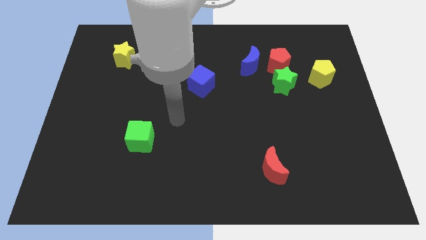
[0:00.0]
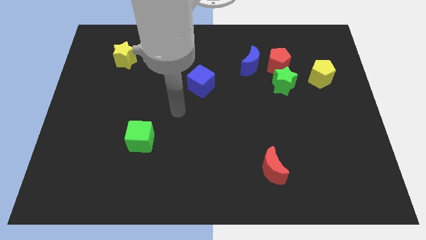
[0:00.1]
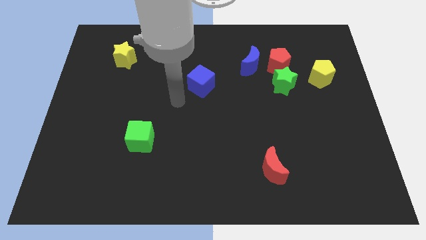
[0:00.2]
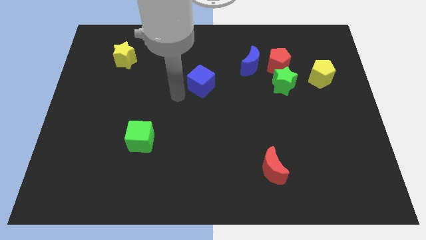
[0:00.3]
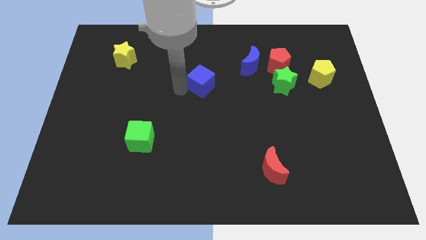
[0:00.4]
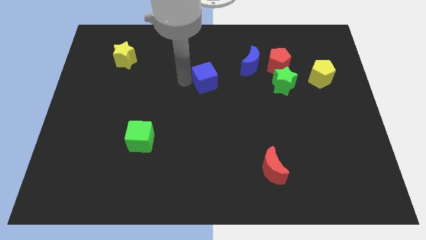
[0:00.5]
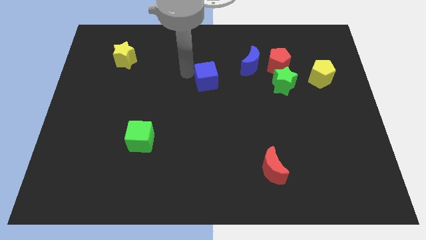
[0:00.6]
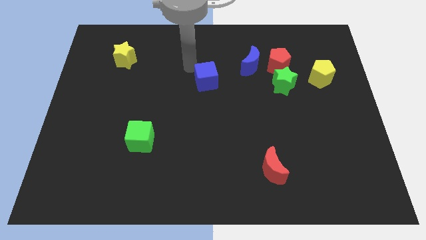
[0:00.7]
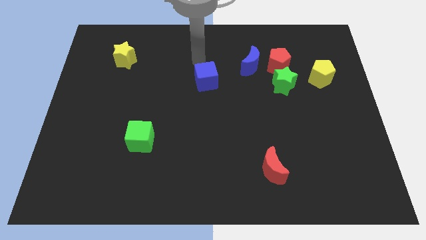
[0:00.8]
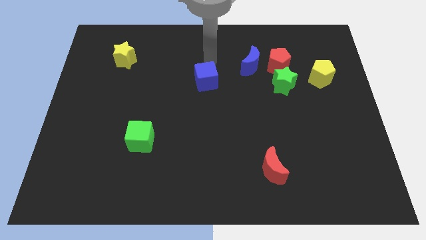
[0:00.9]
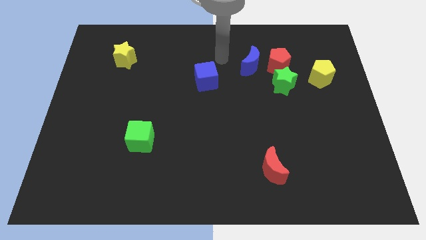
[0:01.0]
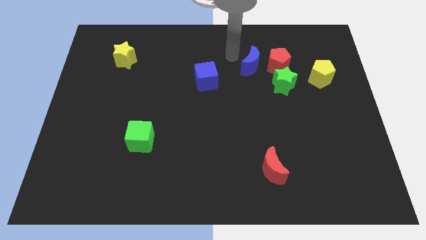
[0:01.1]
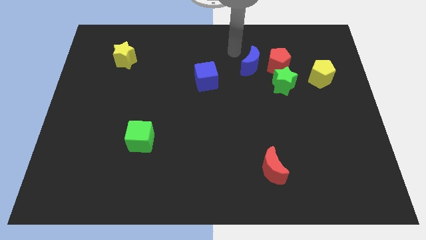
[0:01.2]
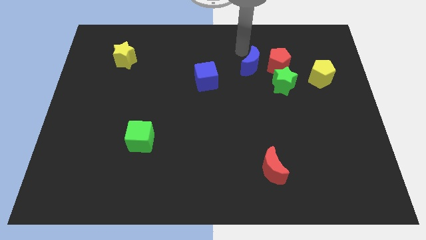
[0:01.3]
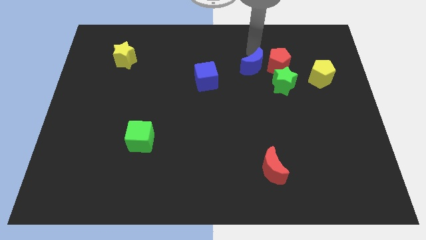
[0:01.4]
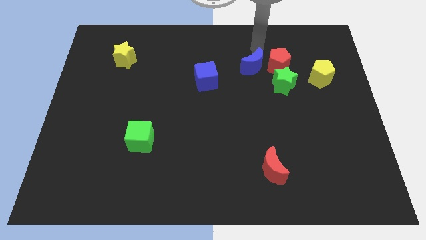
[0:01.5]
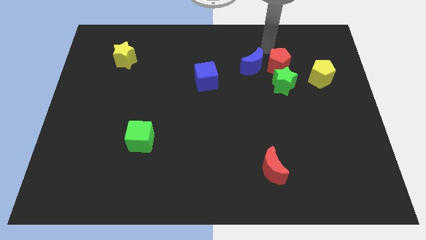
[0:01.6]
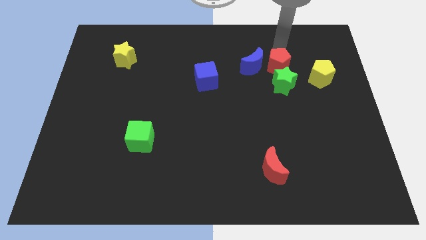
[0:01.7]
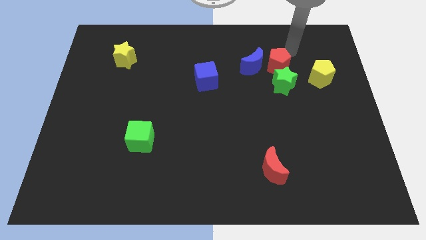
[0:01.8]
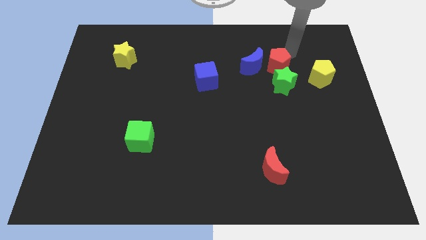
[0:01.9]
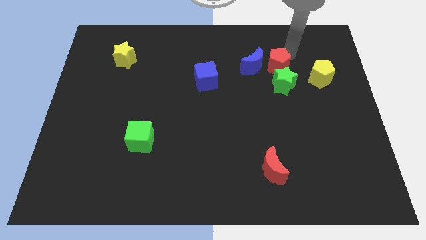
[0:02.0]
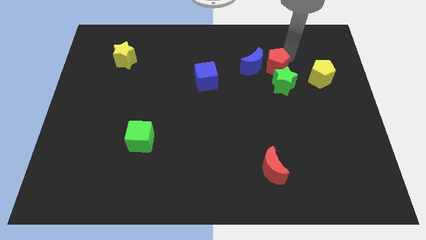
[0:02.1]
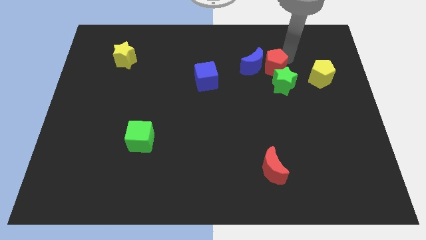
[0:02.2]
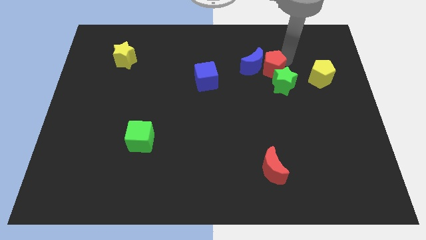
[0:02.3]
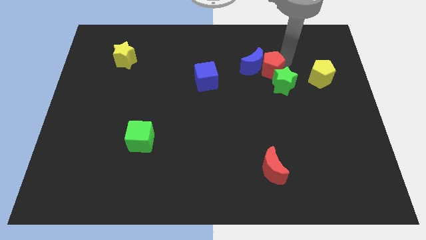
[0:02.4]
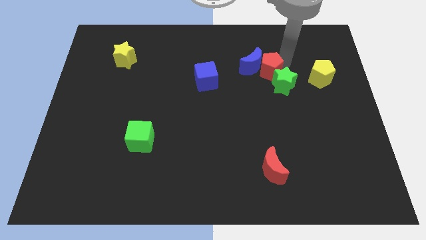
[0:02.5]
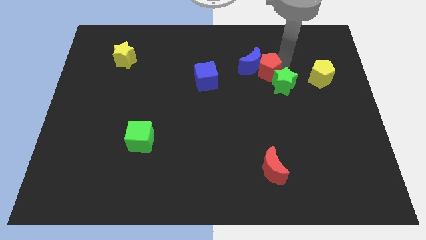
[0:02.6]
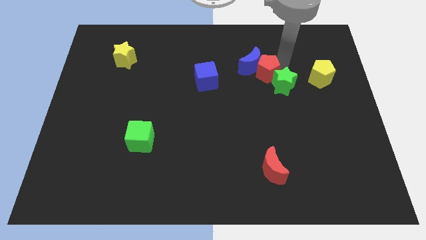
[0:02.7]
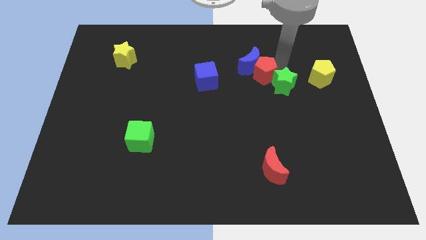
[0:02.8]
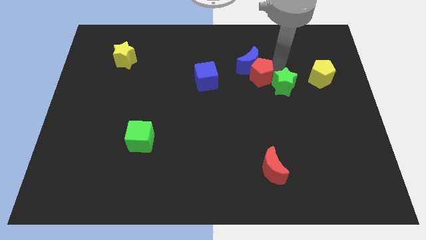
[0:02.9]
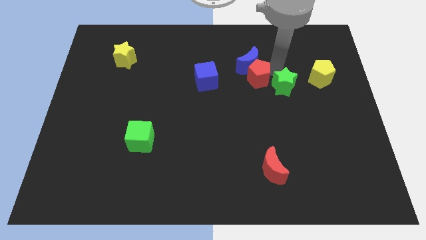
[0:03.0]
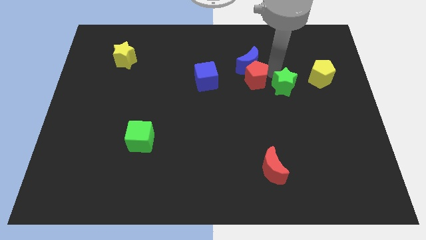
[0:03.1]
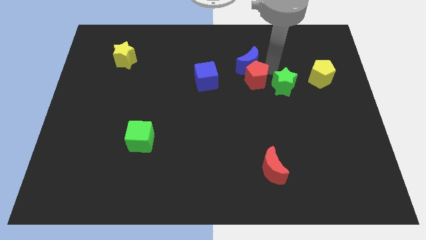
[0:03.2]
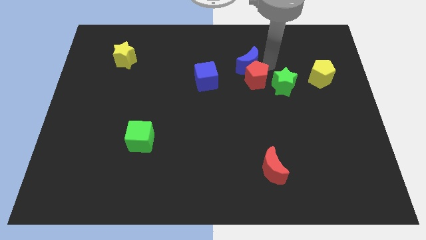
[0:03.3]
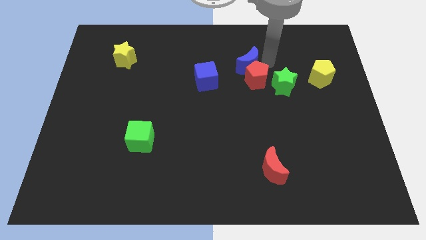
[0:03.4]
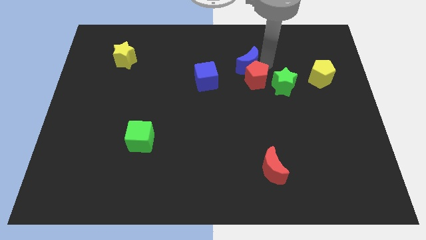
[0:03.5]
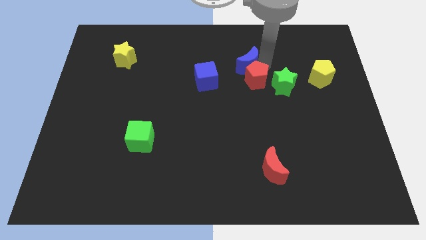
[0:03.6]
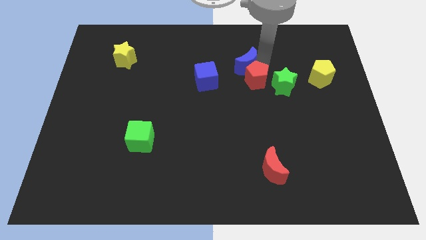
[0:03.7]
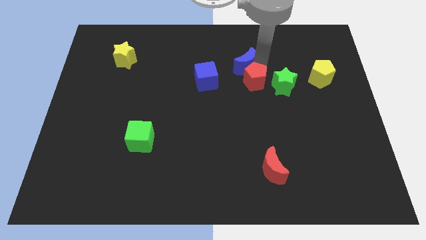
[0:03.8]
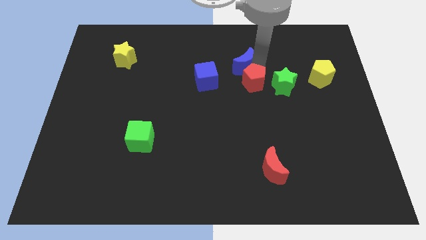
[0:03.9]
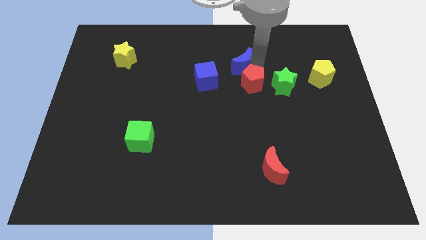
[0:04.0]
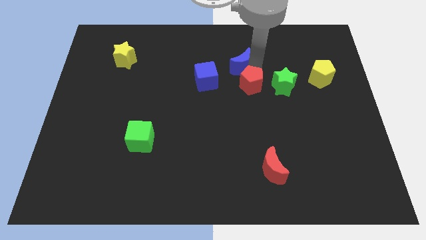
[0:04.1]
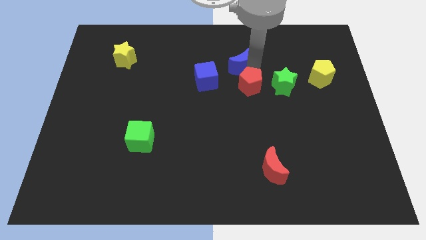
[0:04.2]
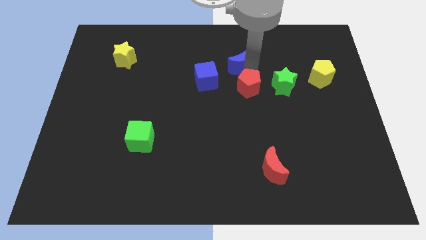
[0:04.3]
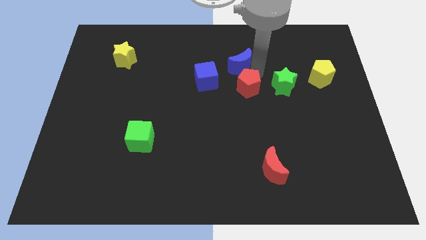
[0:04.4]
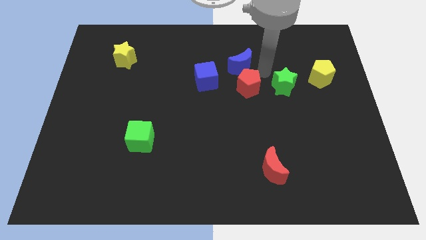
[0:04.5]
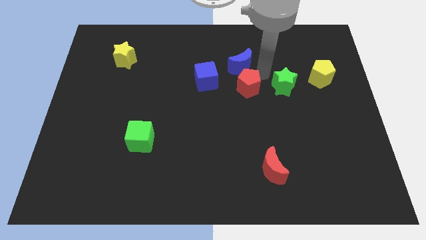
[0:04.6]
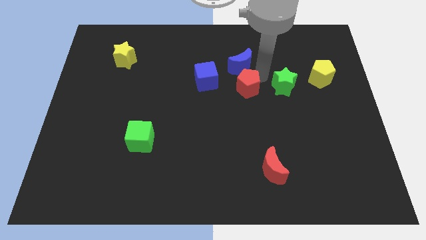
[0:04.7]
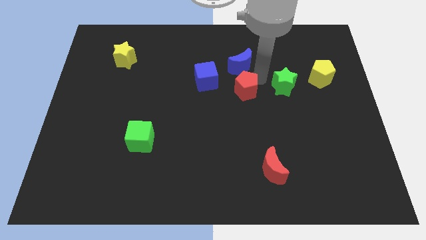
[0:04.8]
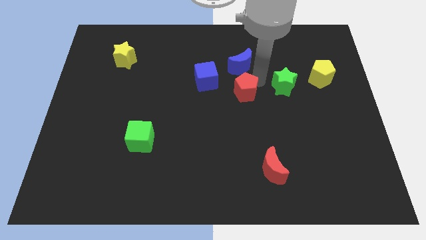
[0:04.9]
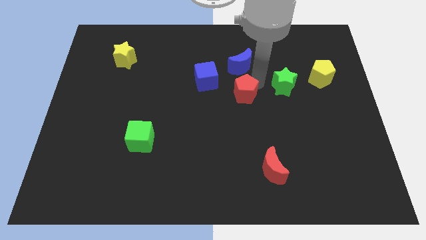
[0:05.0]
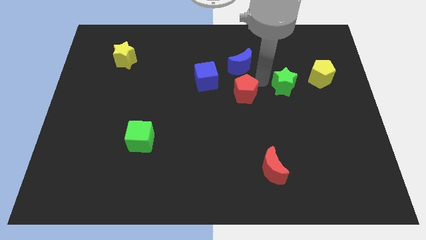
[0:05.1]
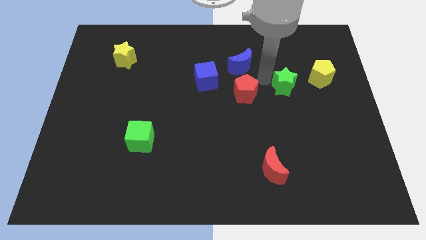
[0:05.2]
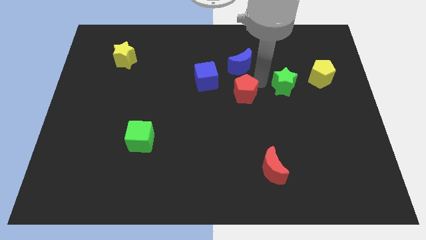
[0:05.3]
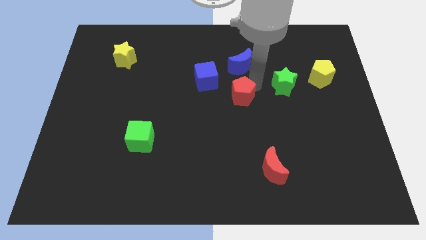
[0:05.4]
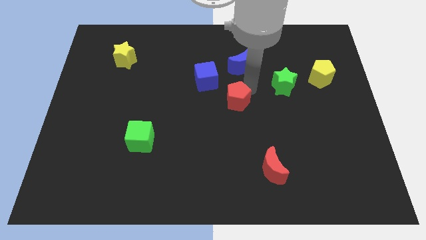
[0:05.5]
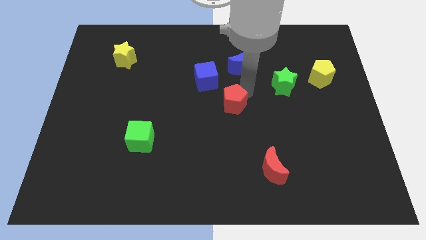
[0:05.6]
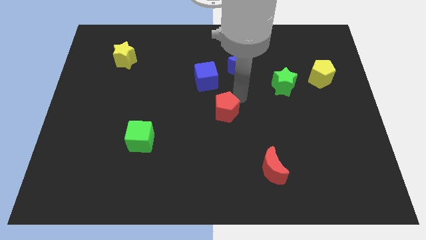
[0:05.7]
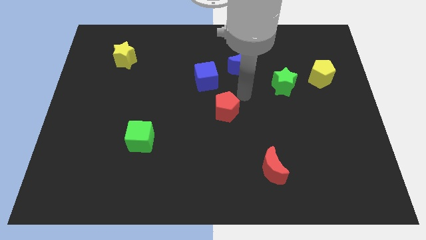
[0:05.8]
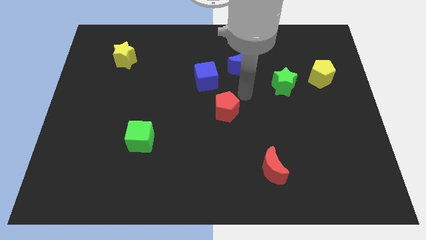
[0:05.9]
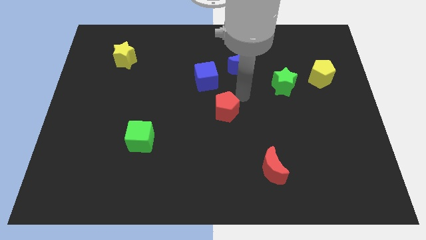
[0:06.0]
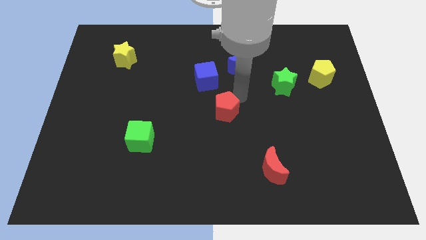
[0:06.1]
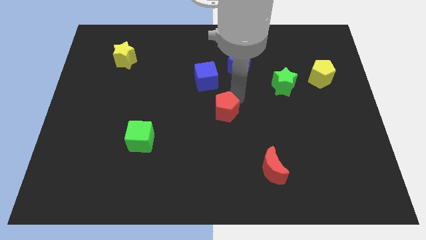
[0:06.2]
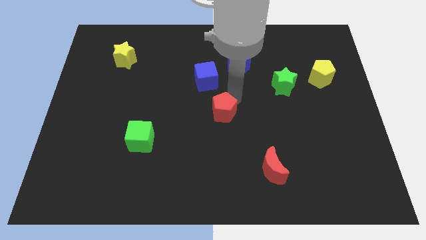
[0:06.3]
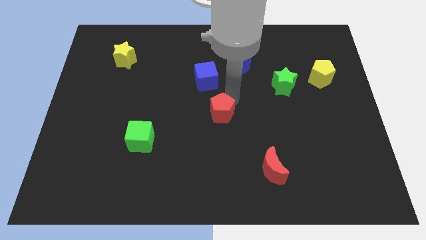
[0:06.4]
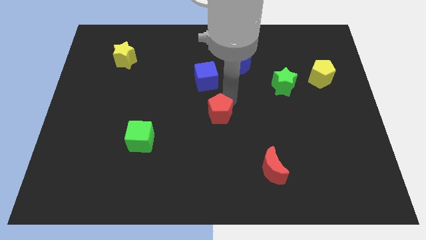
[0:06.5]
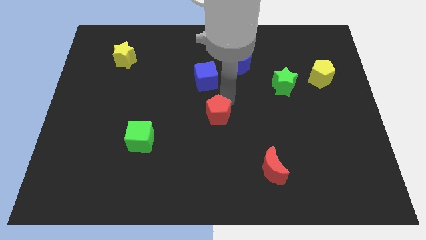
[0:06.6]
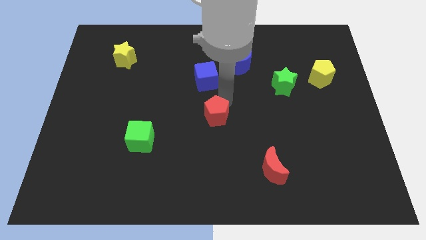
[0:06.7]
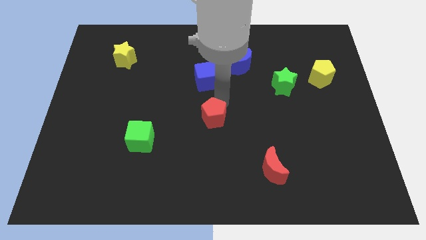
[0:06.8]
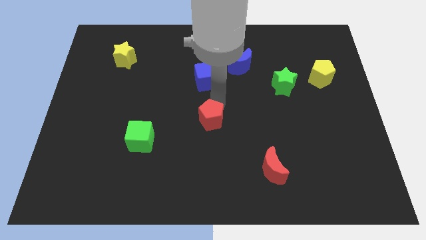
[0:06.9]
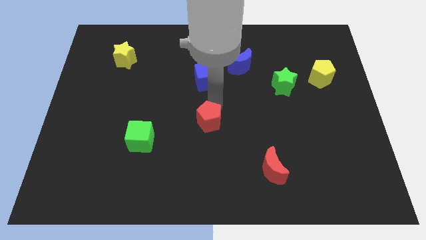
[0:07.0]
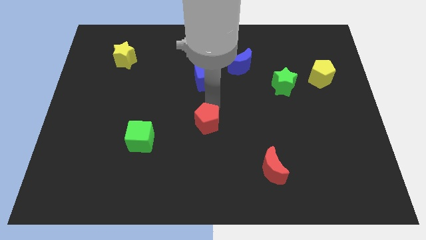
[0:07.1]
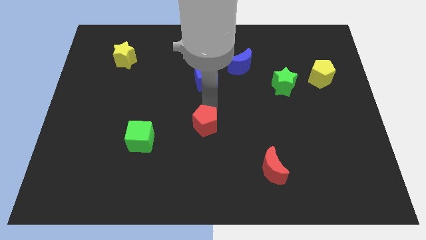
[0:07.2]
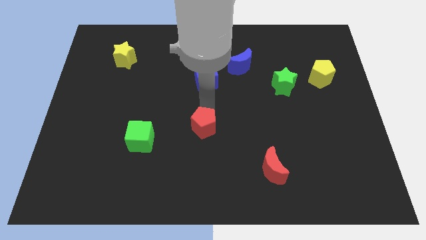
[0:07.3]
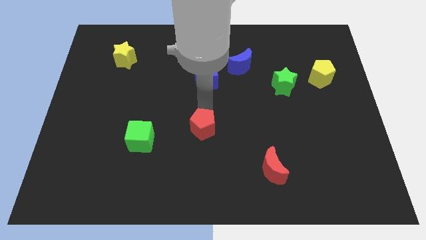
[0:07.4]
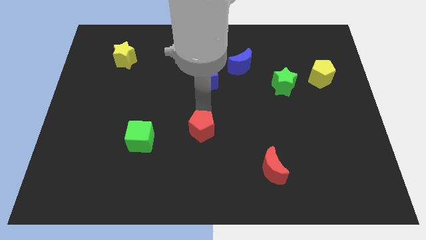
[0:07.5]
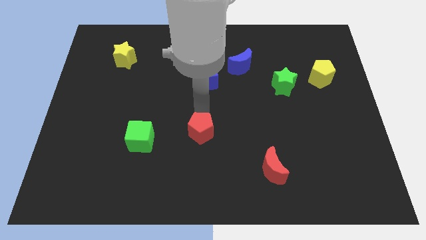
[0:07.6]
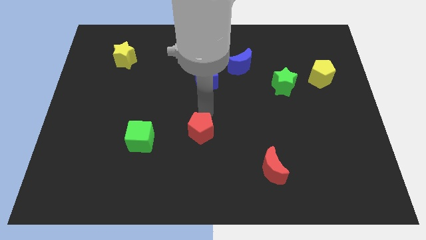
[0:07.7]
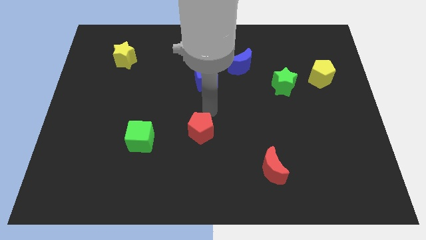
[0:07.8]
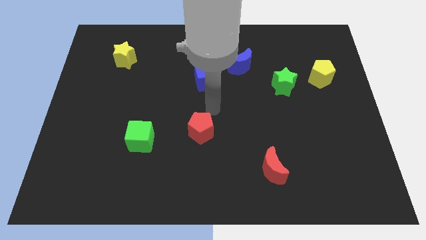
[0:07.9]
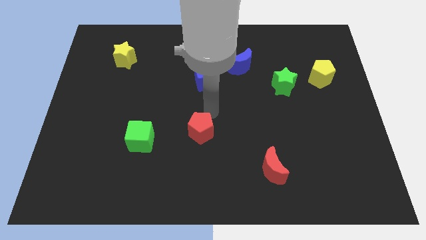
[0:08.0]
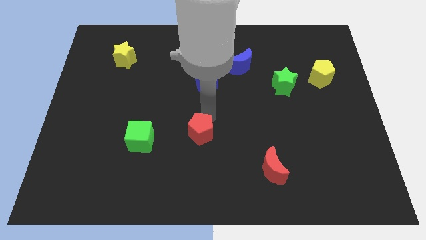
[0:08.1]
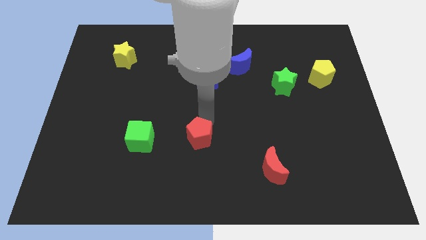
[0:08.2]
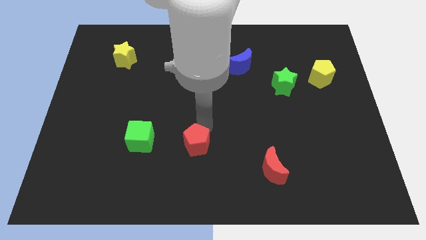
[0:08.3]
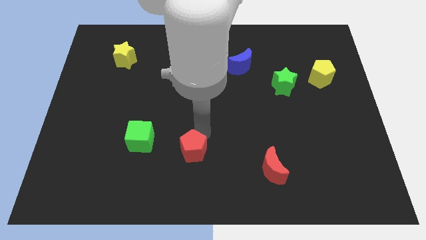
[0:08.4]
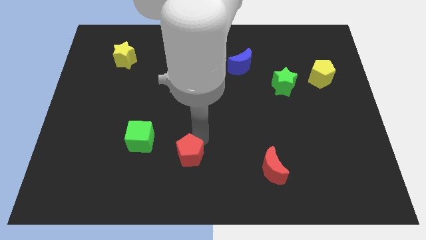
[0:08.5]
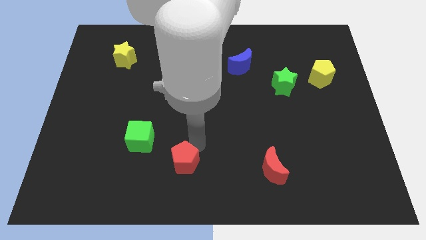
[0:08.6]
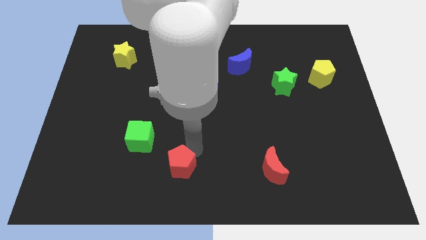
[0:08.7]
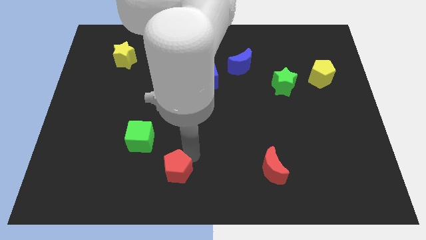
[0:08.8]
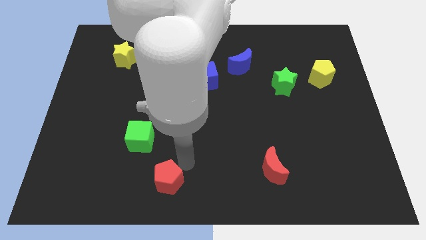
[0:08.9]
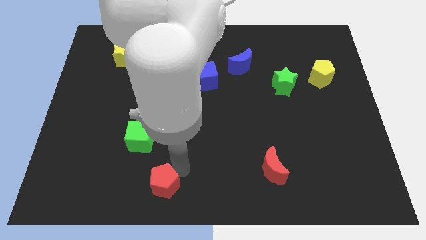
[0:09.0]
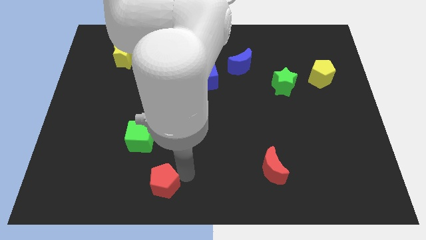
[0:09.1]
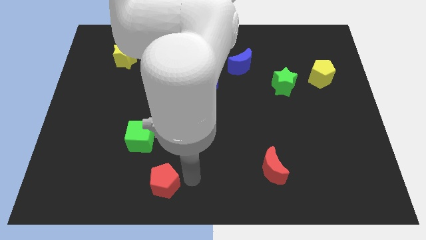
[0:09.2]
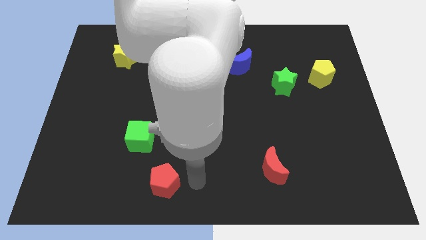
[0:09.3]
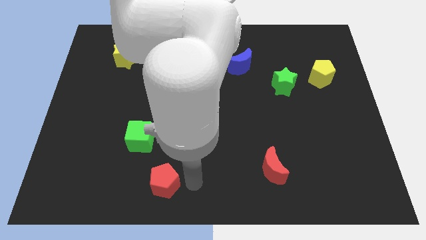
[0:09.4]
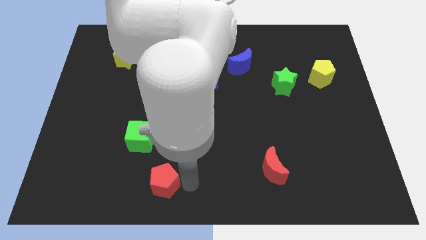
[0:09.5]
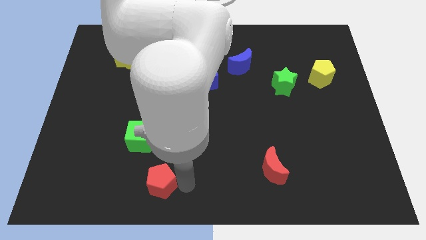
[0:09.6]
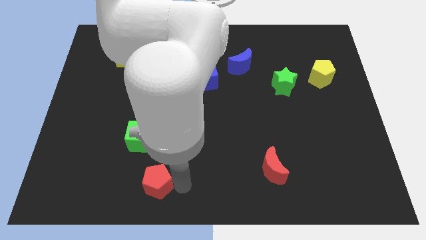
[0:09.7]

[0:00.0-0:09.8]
push the red pentagon below the green cube
